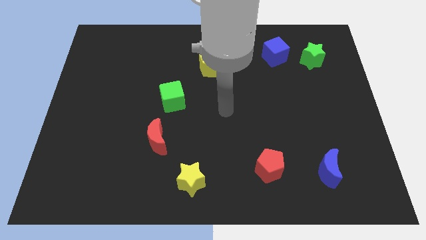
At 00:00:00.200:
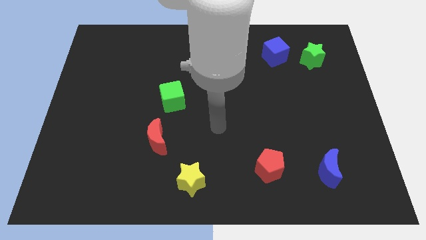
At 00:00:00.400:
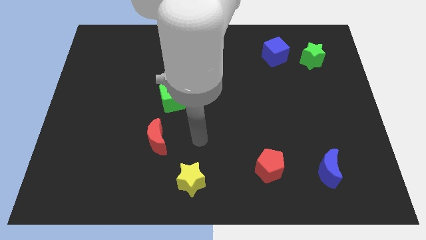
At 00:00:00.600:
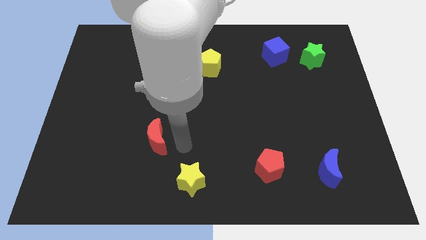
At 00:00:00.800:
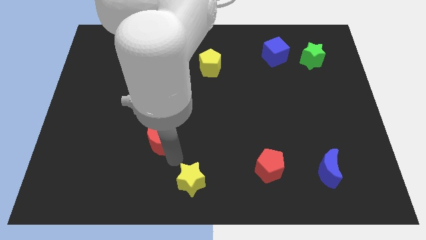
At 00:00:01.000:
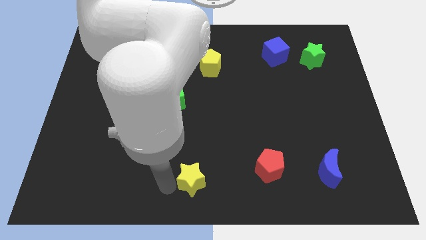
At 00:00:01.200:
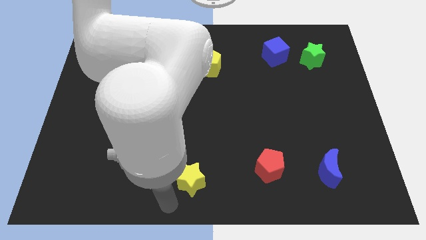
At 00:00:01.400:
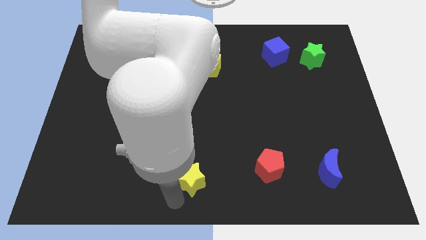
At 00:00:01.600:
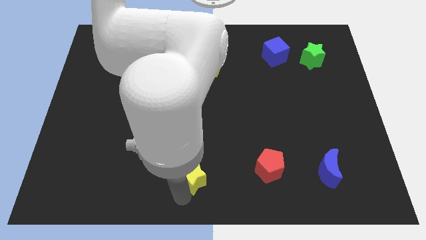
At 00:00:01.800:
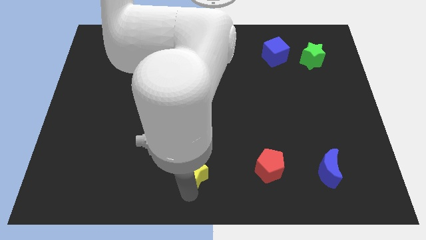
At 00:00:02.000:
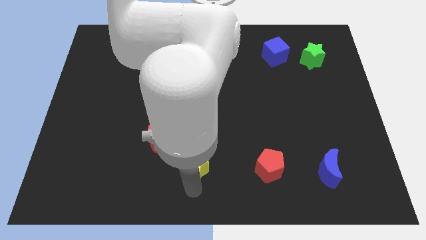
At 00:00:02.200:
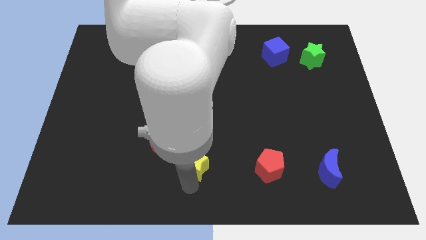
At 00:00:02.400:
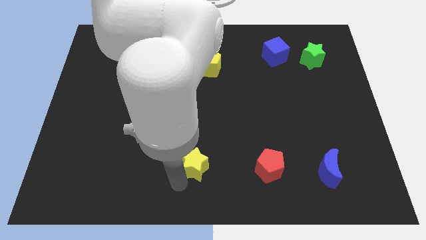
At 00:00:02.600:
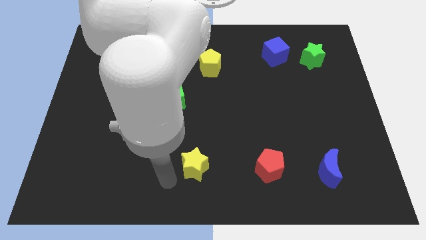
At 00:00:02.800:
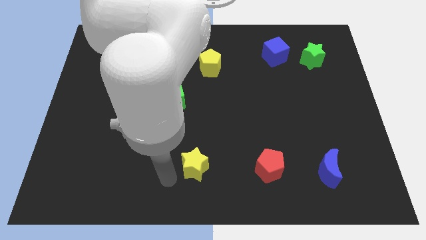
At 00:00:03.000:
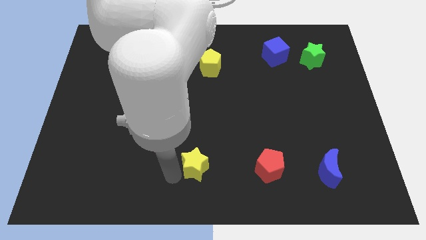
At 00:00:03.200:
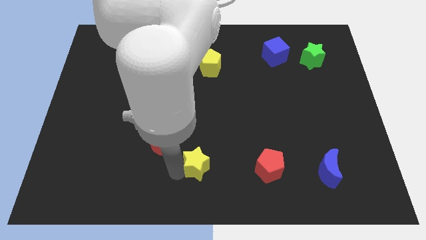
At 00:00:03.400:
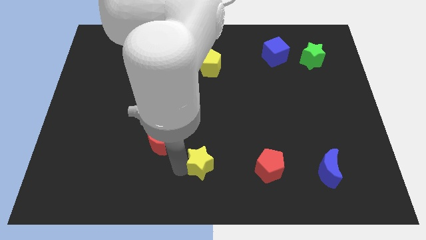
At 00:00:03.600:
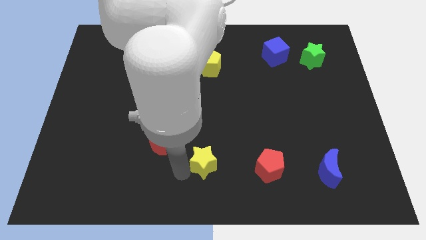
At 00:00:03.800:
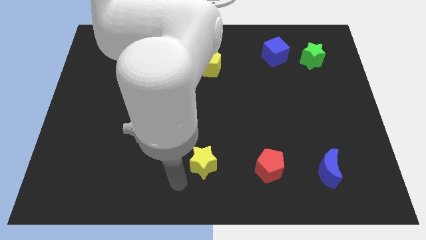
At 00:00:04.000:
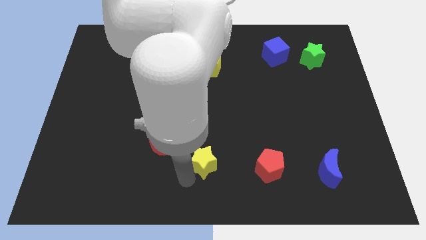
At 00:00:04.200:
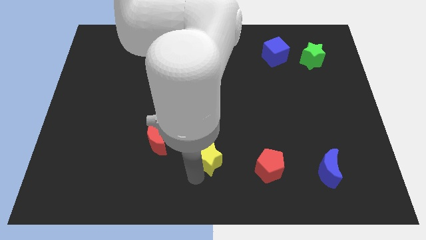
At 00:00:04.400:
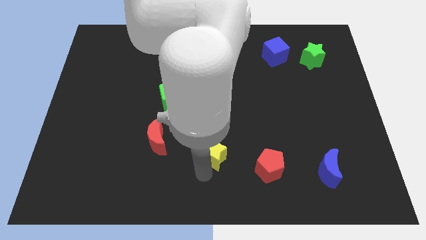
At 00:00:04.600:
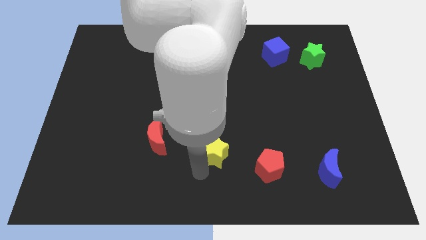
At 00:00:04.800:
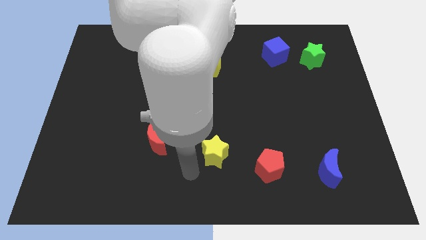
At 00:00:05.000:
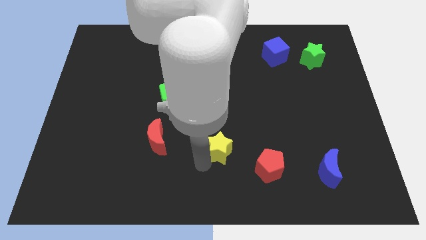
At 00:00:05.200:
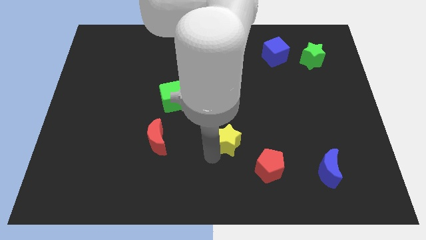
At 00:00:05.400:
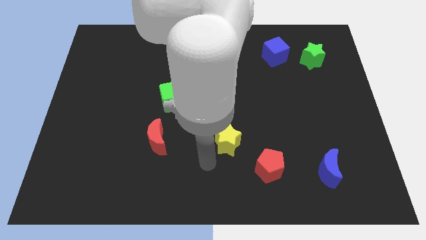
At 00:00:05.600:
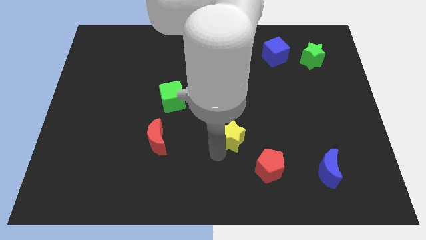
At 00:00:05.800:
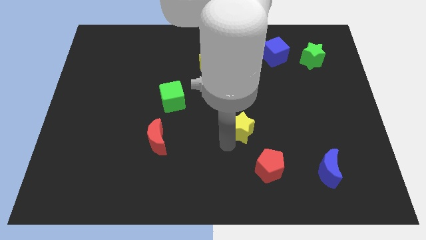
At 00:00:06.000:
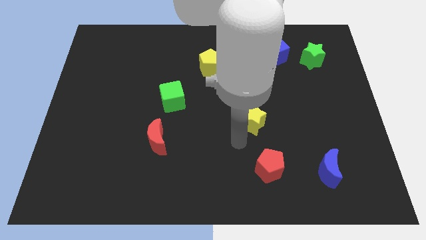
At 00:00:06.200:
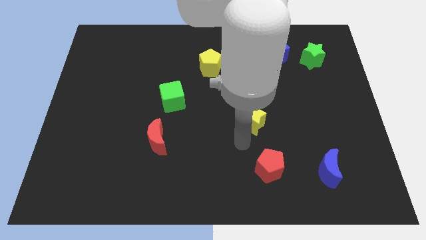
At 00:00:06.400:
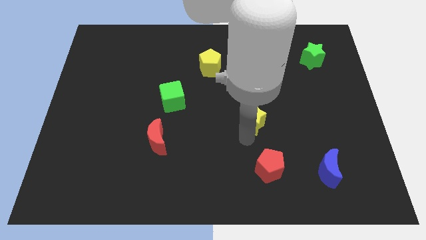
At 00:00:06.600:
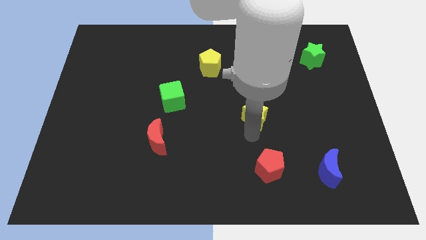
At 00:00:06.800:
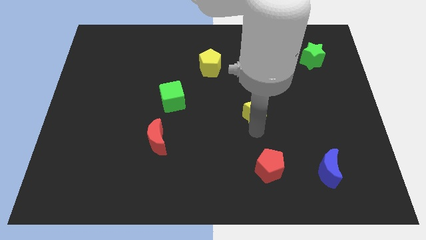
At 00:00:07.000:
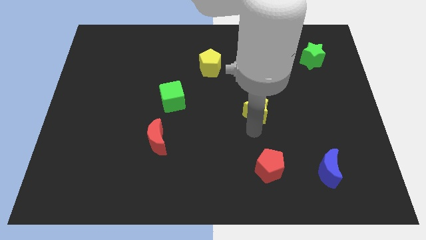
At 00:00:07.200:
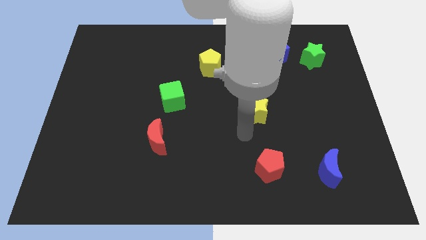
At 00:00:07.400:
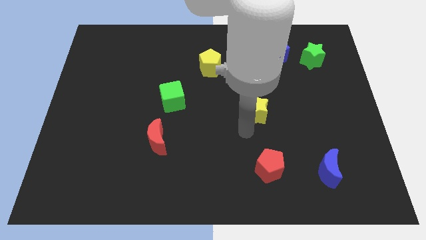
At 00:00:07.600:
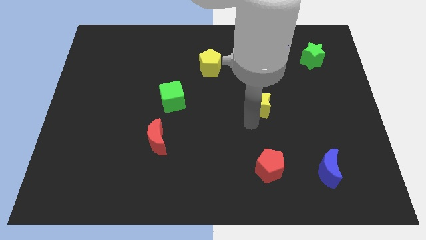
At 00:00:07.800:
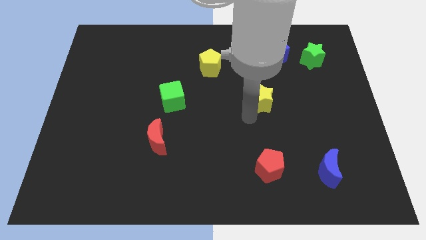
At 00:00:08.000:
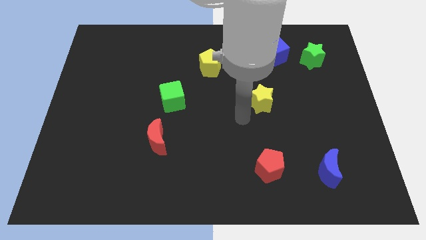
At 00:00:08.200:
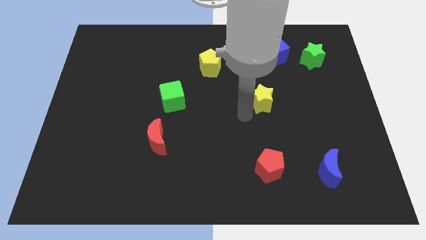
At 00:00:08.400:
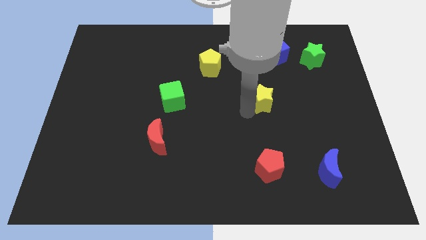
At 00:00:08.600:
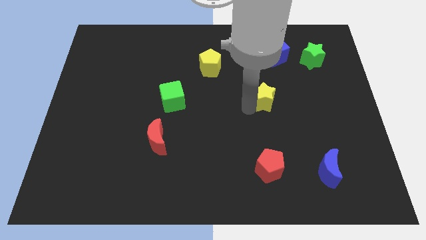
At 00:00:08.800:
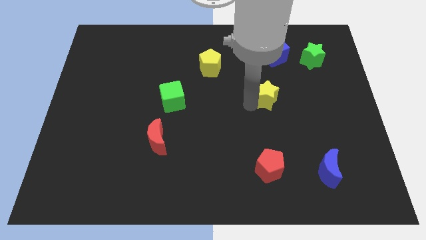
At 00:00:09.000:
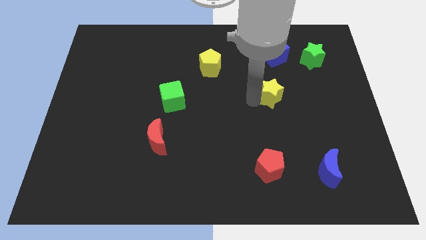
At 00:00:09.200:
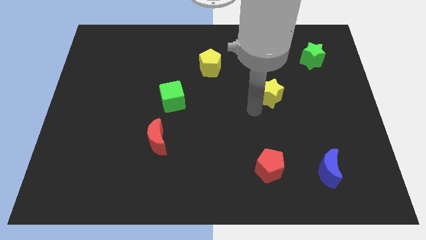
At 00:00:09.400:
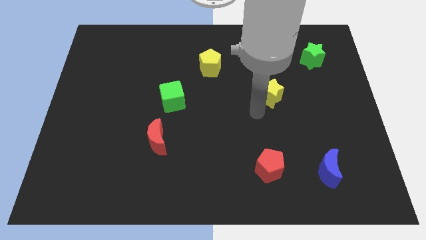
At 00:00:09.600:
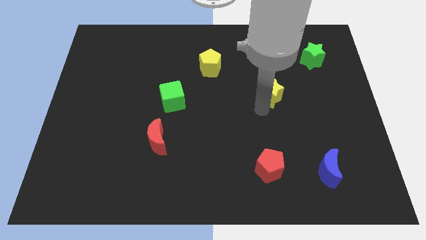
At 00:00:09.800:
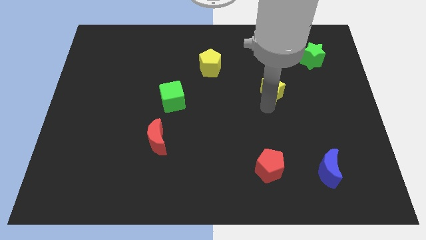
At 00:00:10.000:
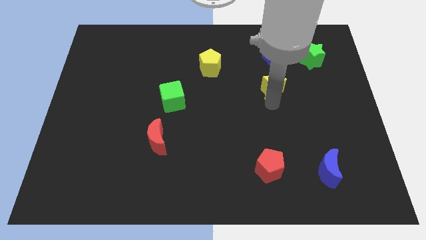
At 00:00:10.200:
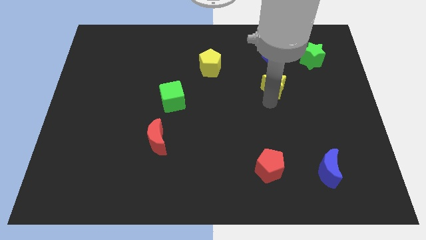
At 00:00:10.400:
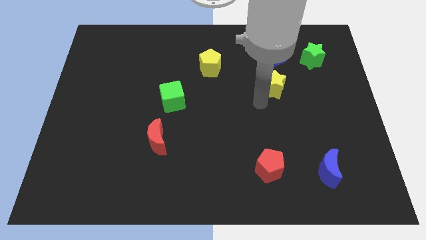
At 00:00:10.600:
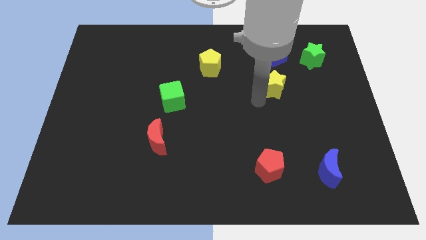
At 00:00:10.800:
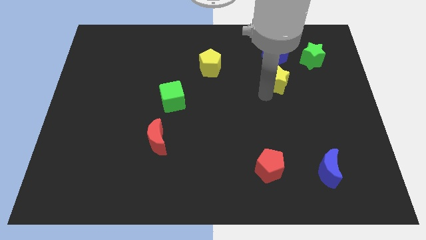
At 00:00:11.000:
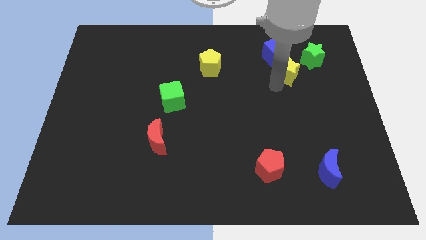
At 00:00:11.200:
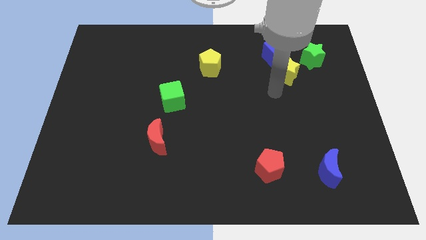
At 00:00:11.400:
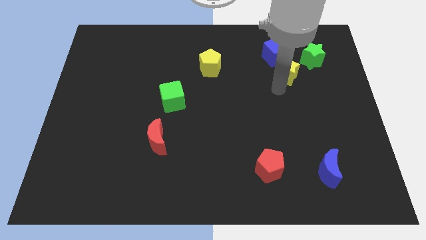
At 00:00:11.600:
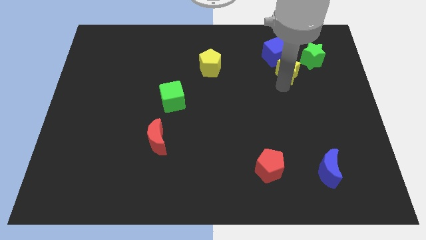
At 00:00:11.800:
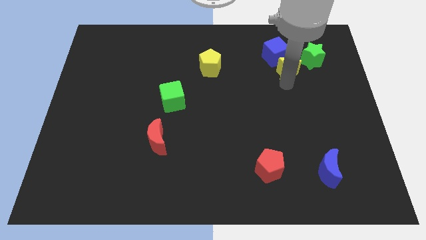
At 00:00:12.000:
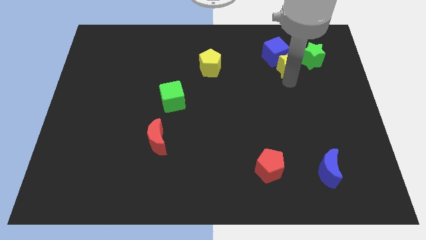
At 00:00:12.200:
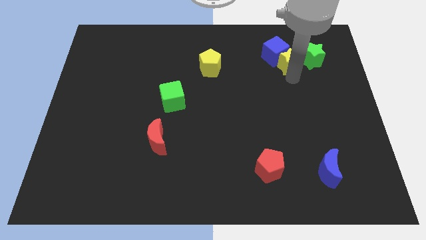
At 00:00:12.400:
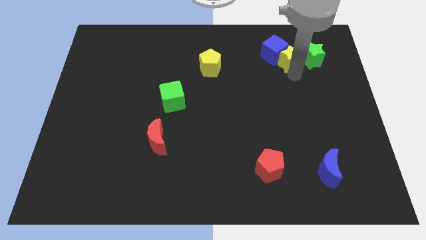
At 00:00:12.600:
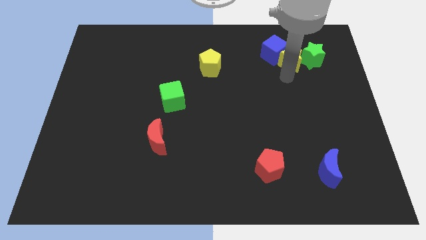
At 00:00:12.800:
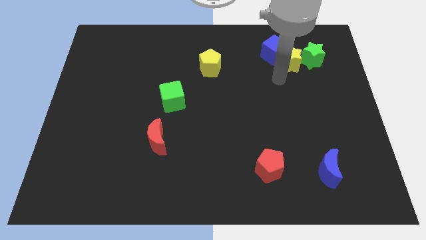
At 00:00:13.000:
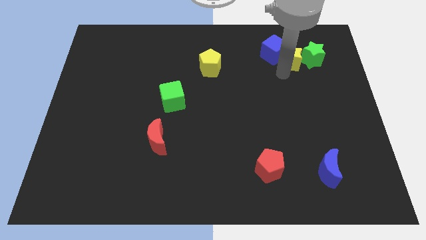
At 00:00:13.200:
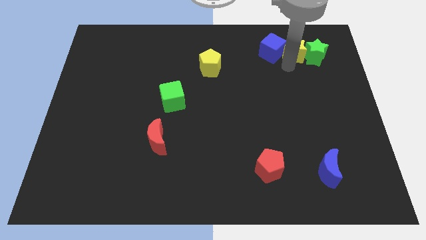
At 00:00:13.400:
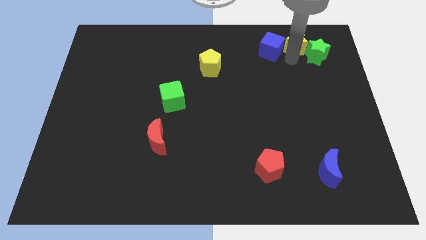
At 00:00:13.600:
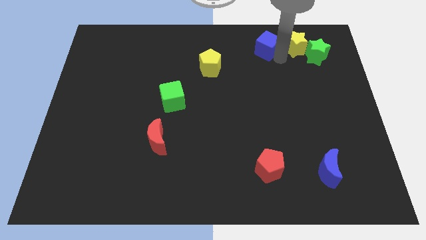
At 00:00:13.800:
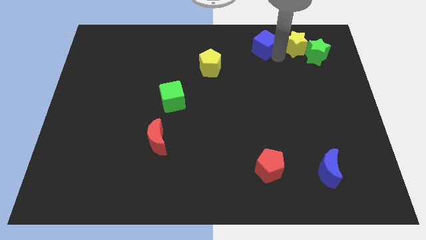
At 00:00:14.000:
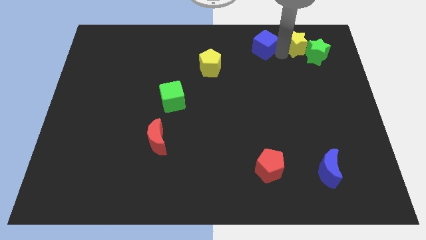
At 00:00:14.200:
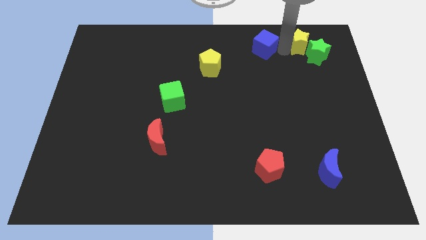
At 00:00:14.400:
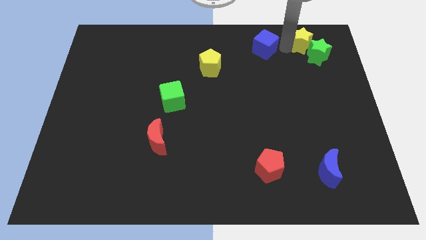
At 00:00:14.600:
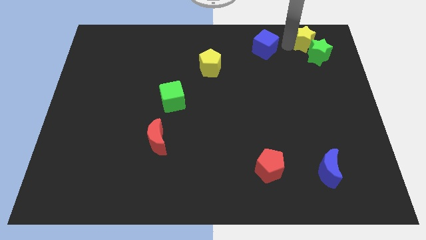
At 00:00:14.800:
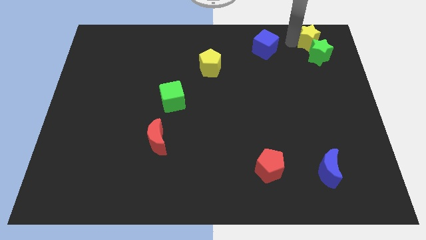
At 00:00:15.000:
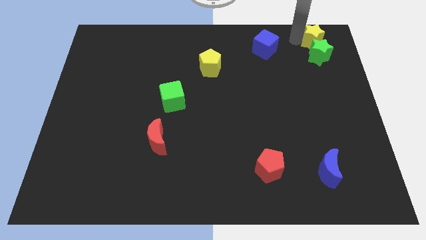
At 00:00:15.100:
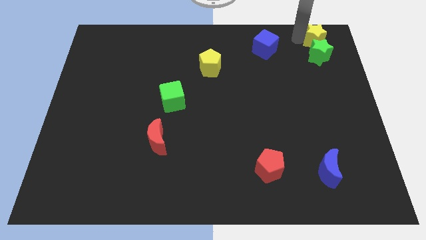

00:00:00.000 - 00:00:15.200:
slide the yellow star to the top right corner

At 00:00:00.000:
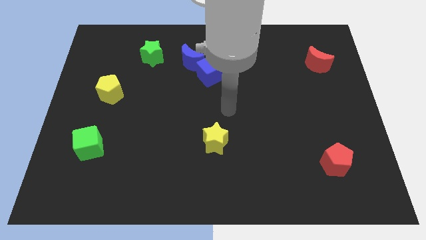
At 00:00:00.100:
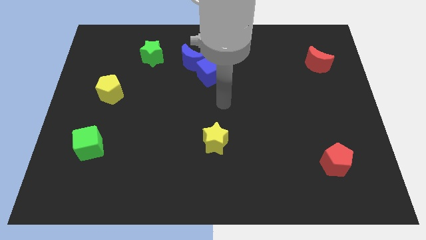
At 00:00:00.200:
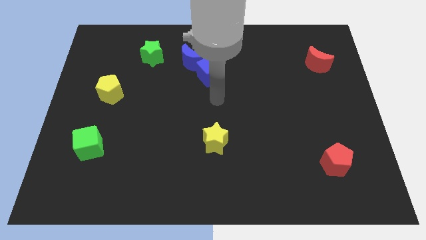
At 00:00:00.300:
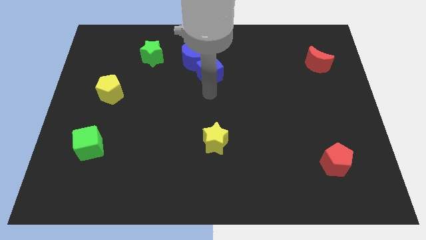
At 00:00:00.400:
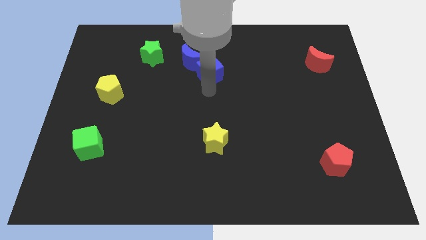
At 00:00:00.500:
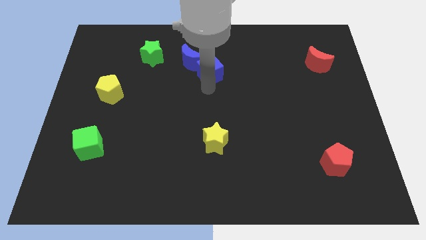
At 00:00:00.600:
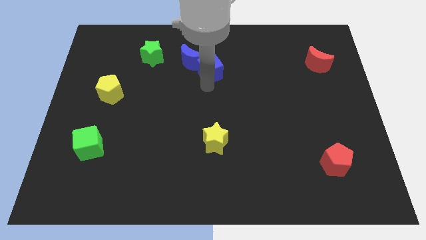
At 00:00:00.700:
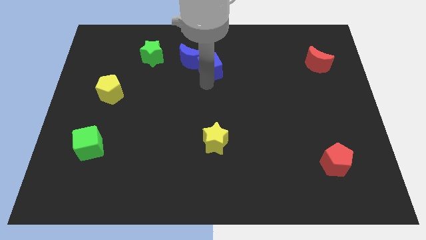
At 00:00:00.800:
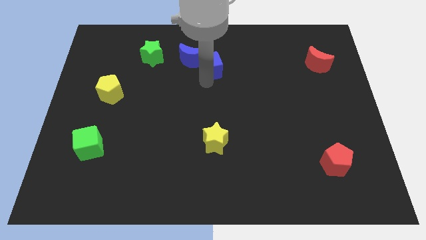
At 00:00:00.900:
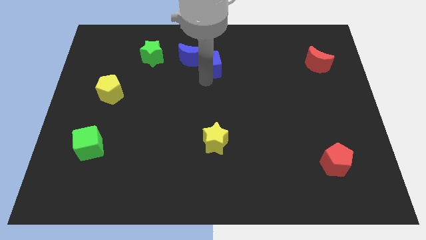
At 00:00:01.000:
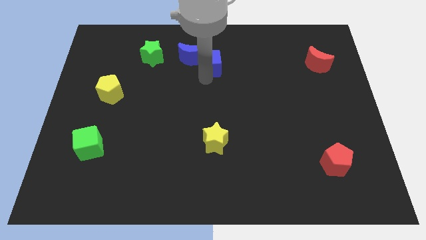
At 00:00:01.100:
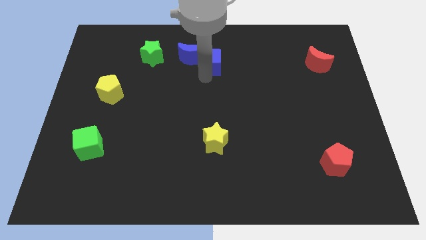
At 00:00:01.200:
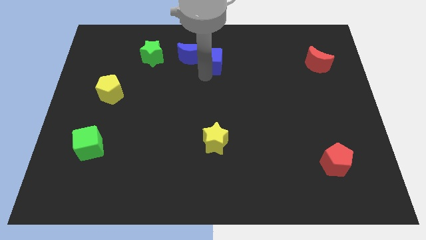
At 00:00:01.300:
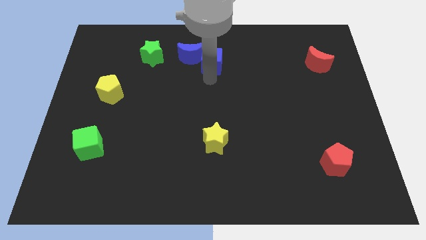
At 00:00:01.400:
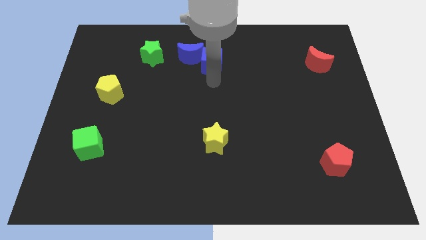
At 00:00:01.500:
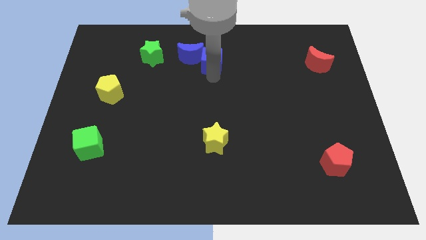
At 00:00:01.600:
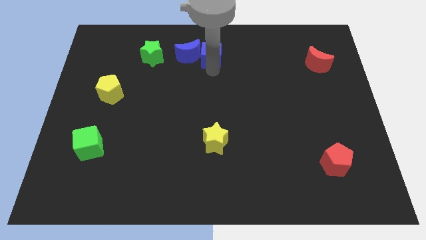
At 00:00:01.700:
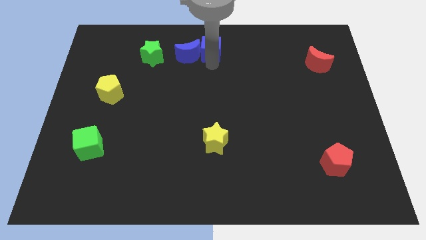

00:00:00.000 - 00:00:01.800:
move the blue cube to the top
